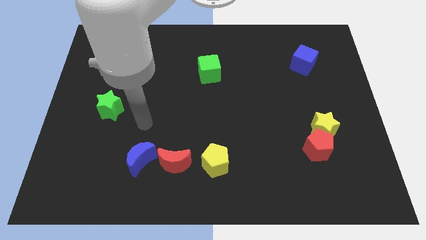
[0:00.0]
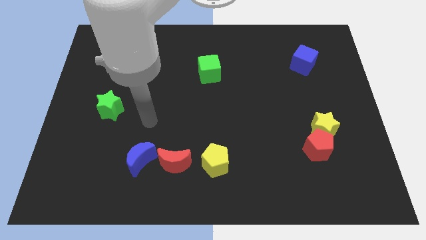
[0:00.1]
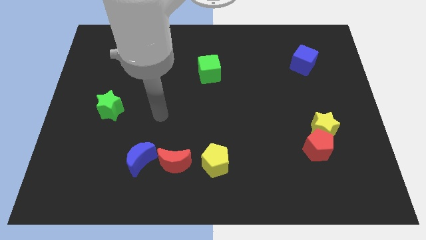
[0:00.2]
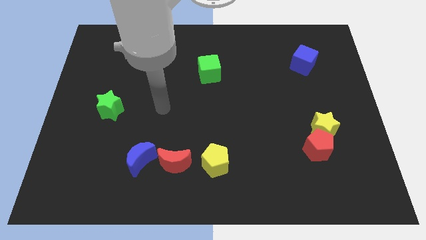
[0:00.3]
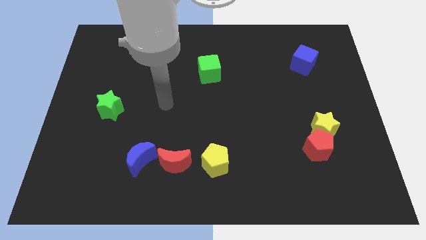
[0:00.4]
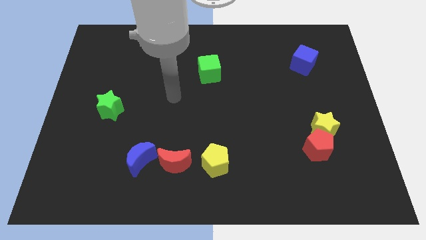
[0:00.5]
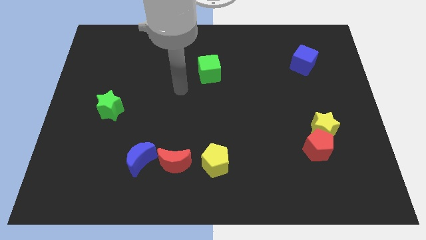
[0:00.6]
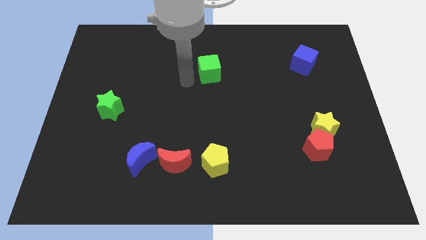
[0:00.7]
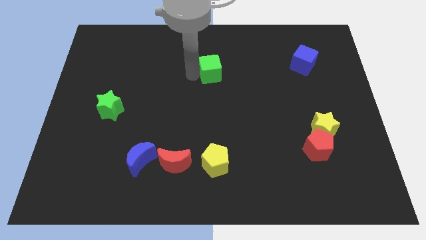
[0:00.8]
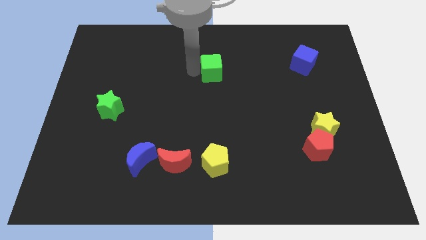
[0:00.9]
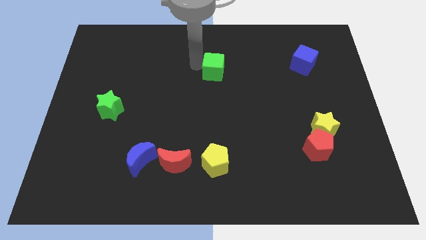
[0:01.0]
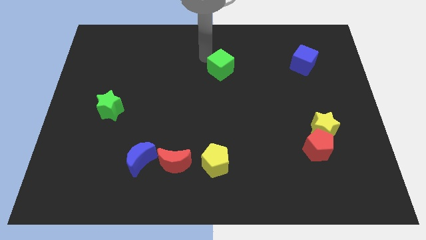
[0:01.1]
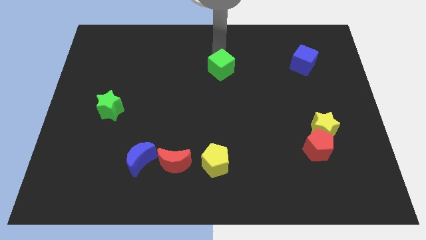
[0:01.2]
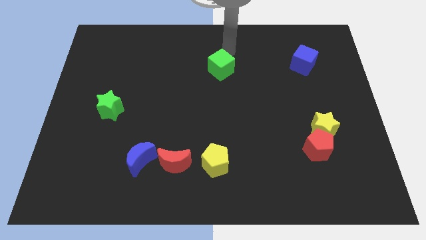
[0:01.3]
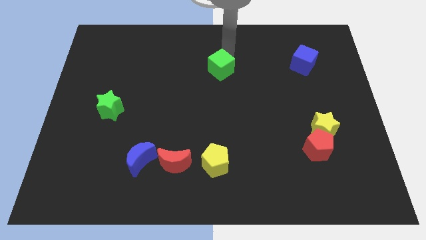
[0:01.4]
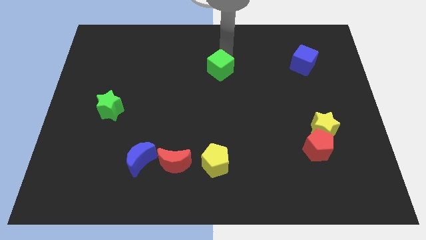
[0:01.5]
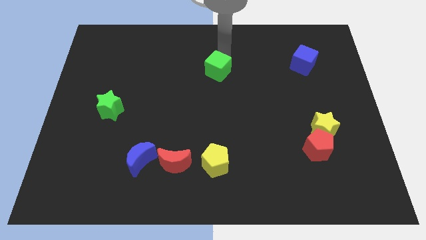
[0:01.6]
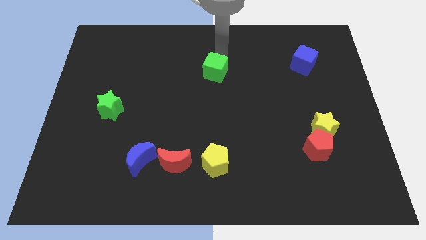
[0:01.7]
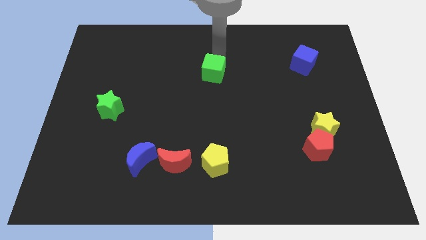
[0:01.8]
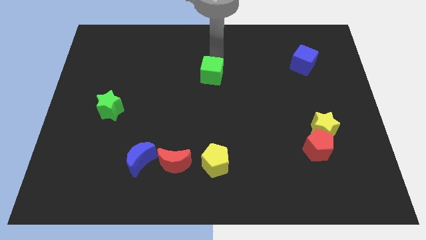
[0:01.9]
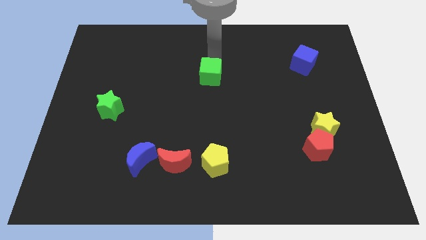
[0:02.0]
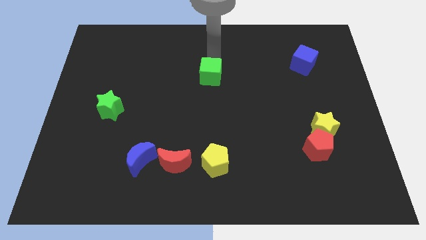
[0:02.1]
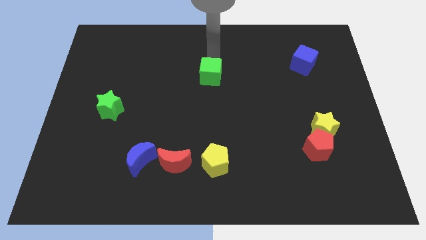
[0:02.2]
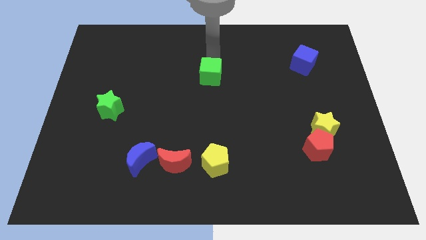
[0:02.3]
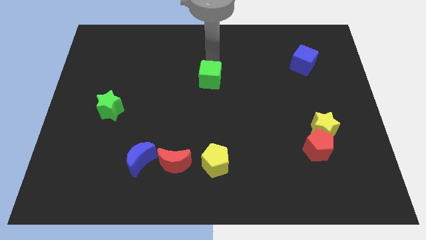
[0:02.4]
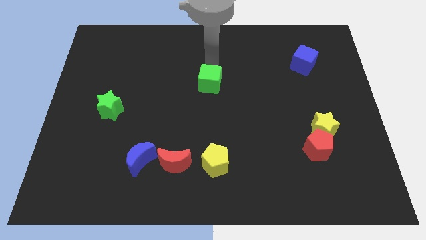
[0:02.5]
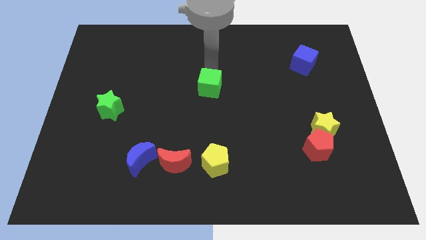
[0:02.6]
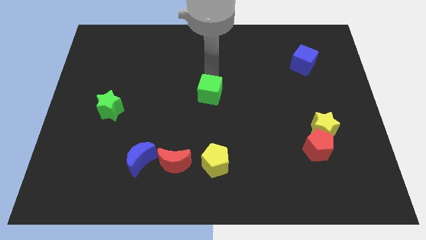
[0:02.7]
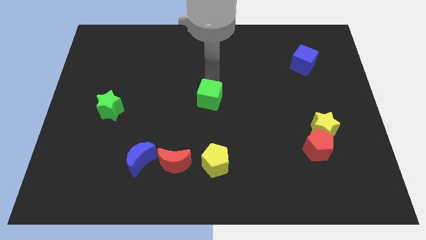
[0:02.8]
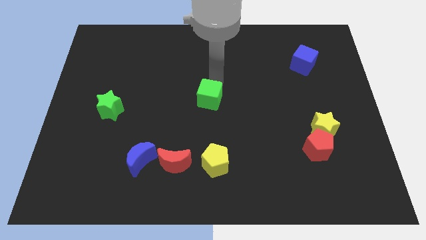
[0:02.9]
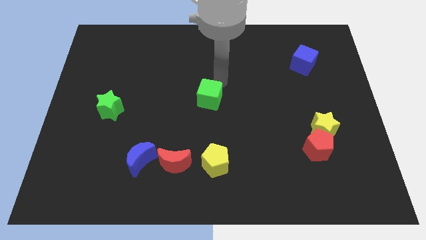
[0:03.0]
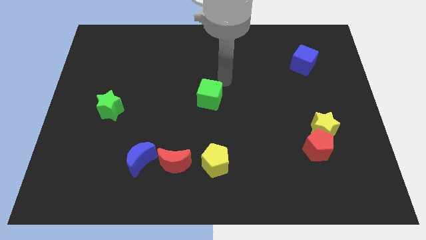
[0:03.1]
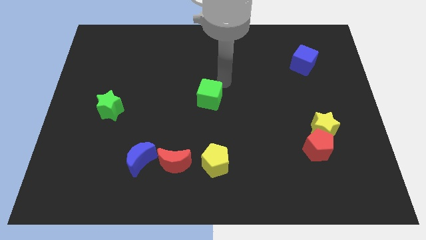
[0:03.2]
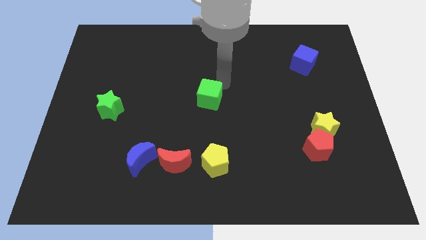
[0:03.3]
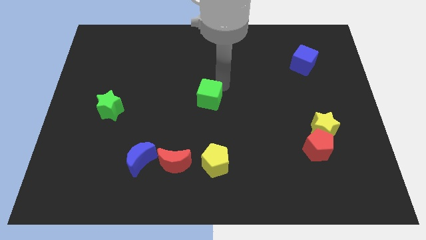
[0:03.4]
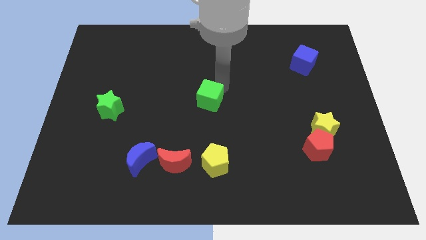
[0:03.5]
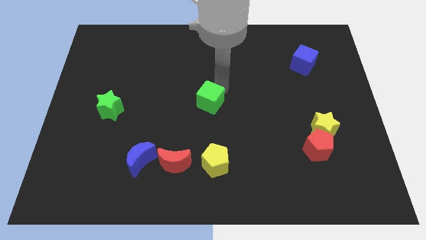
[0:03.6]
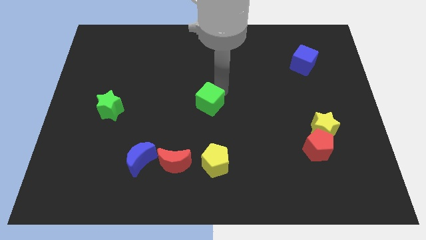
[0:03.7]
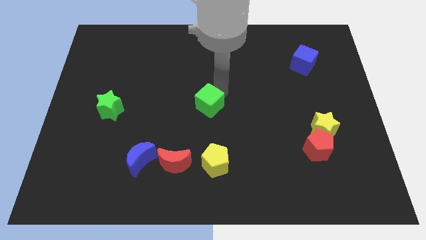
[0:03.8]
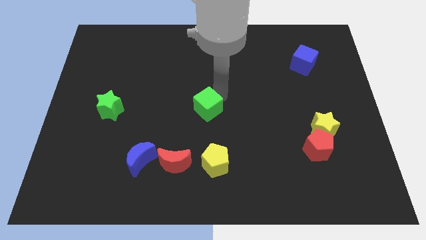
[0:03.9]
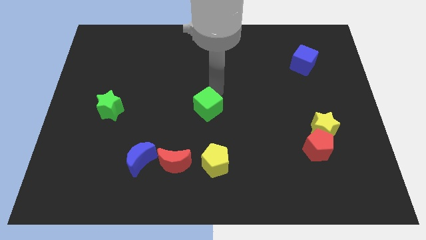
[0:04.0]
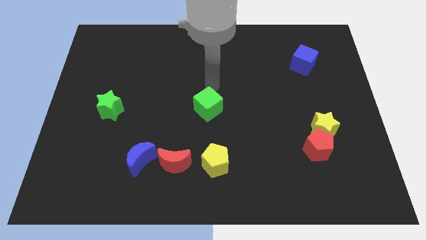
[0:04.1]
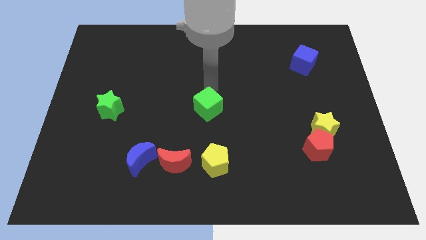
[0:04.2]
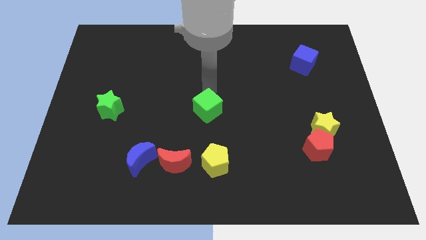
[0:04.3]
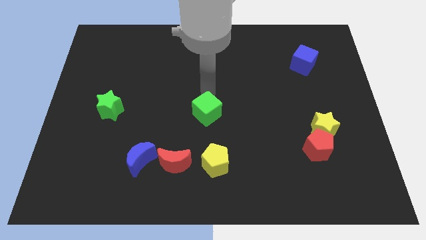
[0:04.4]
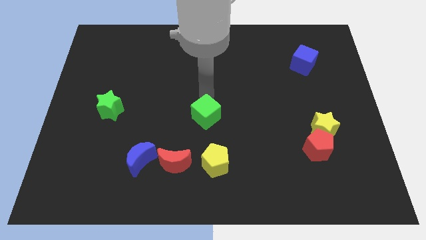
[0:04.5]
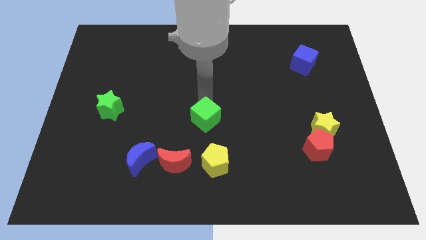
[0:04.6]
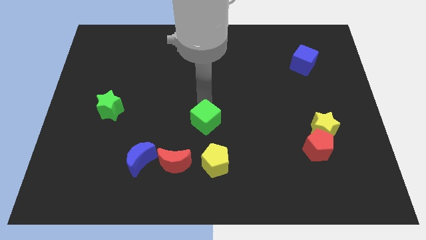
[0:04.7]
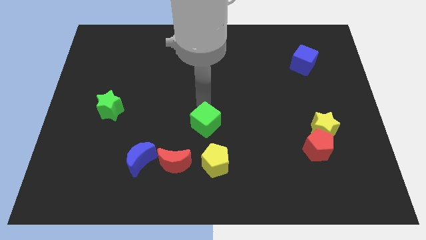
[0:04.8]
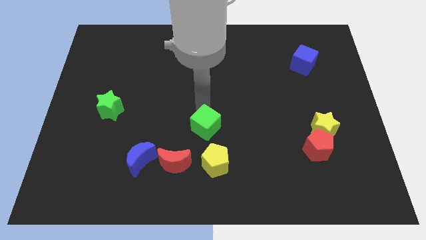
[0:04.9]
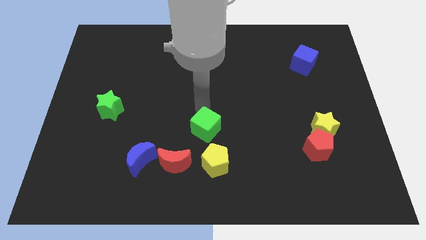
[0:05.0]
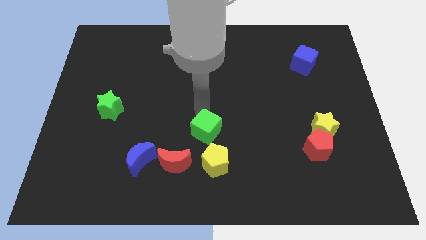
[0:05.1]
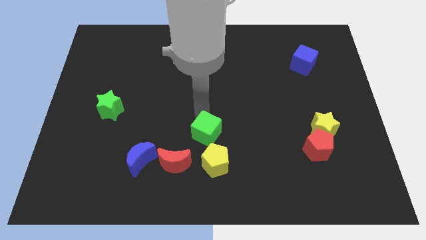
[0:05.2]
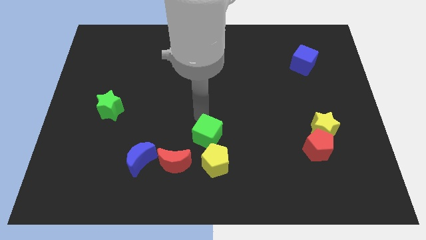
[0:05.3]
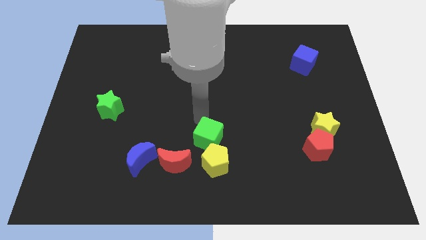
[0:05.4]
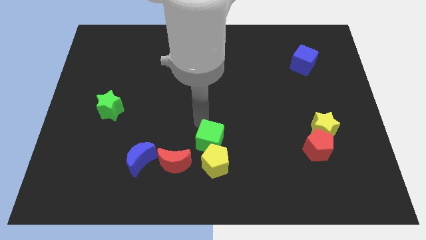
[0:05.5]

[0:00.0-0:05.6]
slide the green cube towards the yellow pentagon

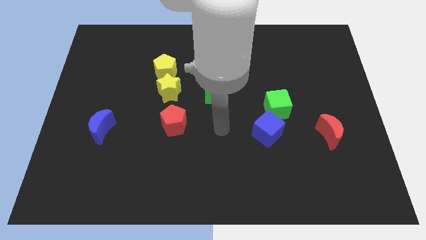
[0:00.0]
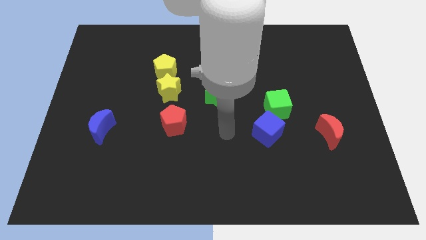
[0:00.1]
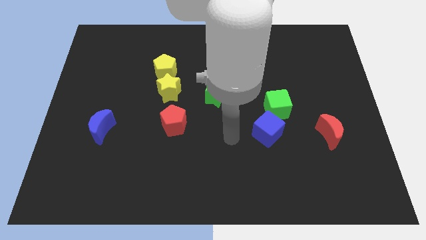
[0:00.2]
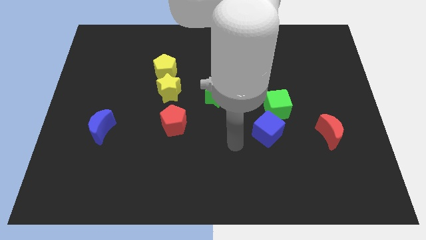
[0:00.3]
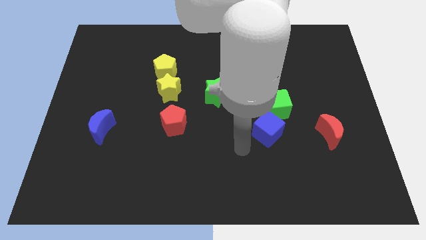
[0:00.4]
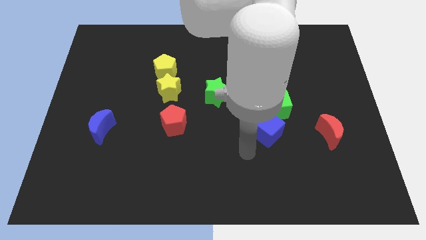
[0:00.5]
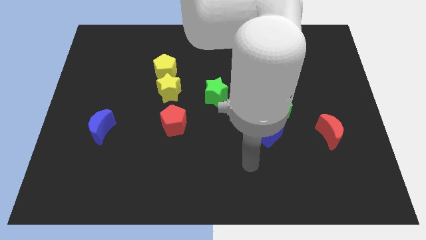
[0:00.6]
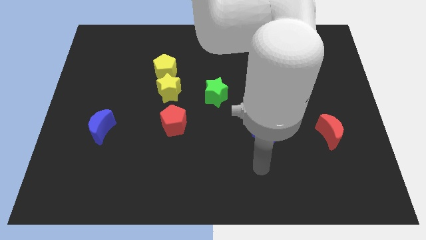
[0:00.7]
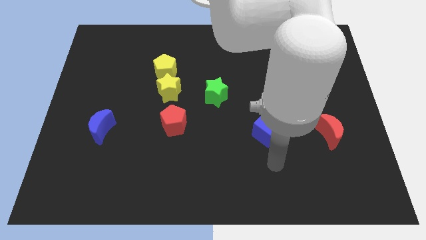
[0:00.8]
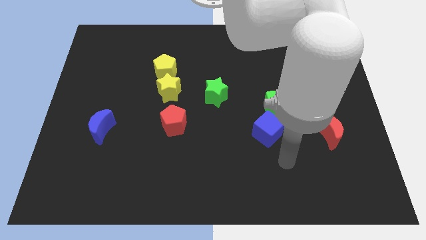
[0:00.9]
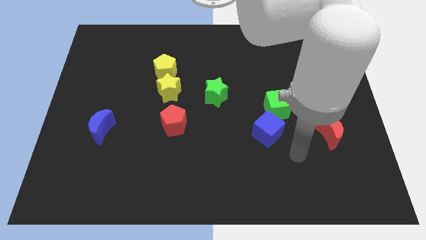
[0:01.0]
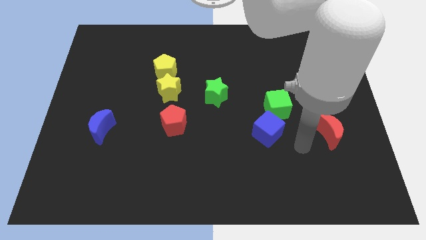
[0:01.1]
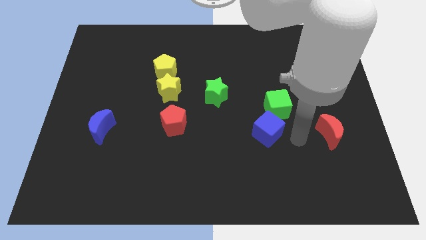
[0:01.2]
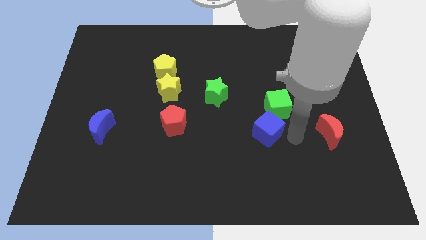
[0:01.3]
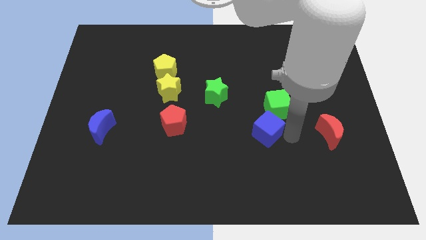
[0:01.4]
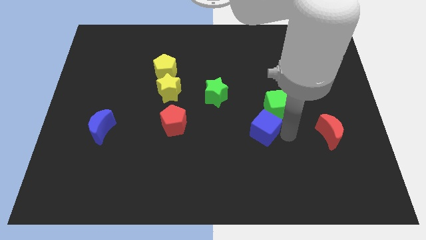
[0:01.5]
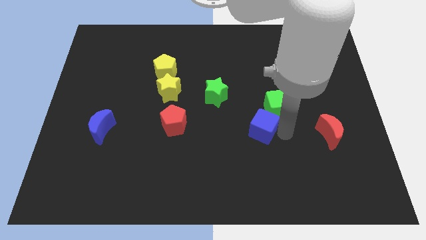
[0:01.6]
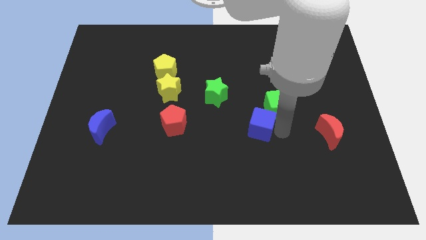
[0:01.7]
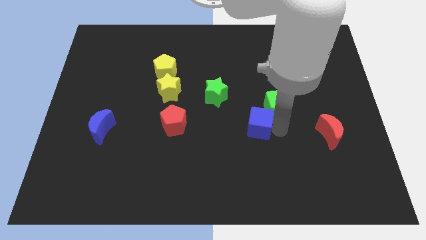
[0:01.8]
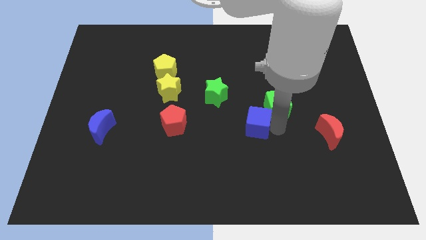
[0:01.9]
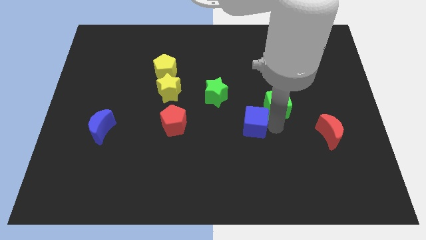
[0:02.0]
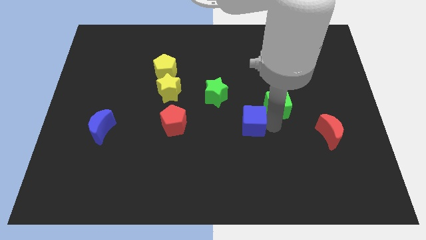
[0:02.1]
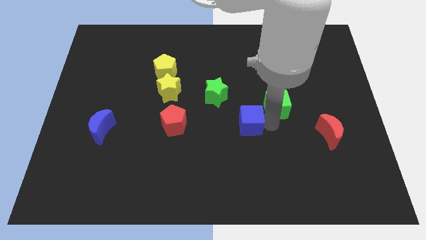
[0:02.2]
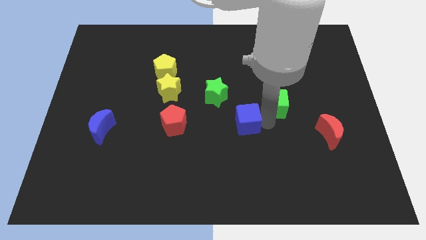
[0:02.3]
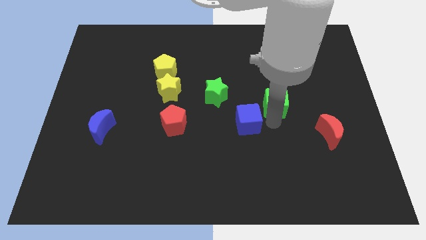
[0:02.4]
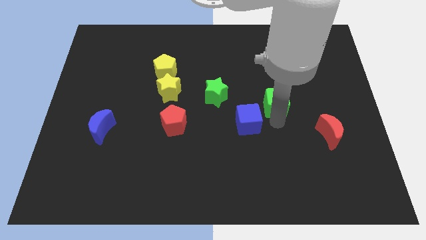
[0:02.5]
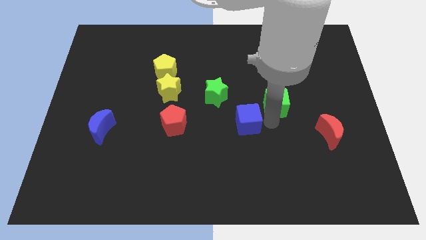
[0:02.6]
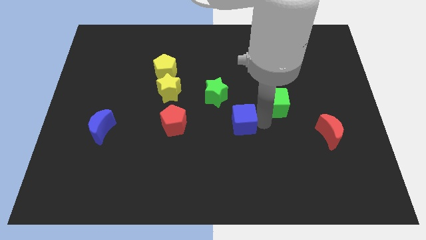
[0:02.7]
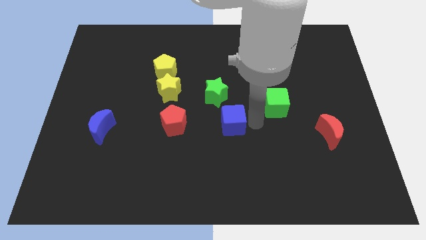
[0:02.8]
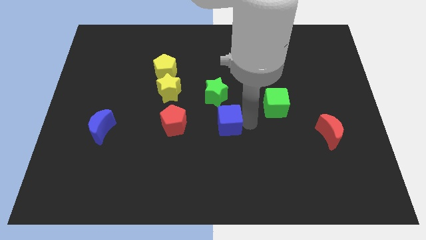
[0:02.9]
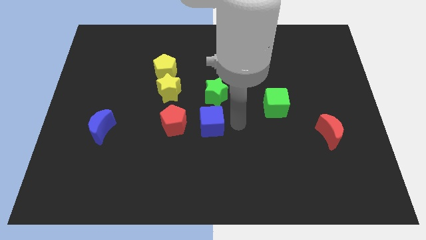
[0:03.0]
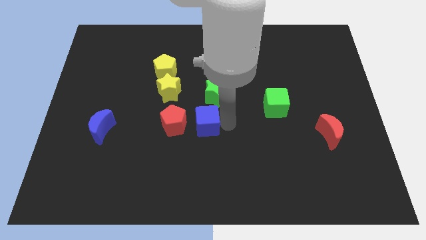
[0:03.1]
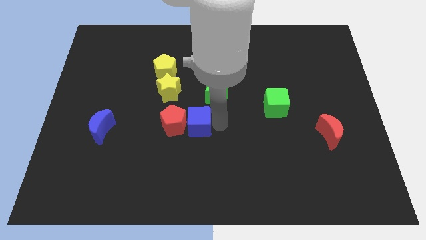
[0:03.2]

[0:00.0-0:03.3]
put the blue cube next to the red pentagon
